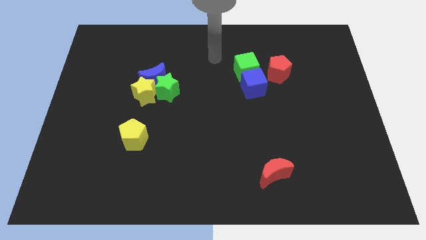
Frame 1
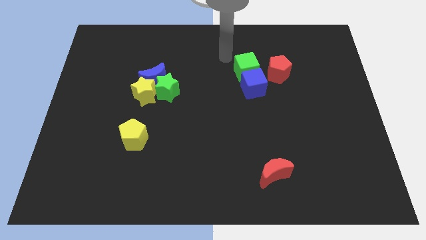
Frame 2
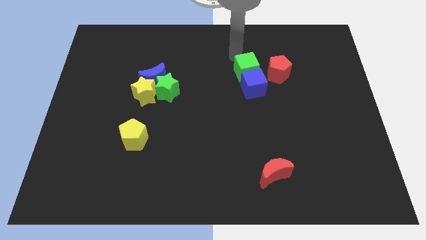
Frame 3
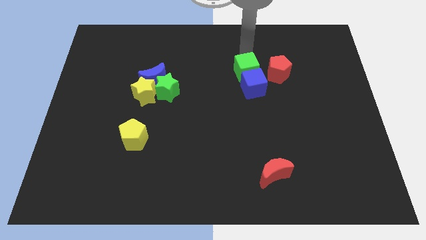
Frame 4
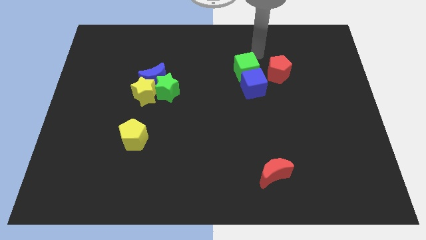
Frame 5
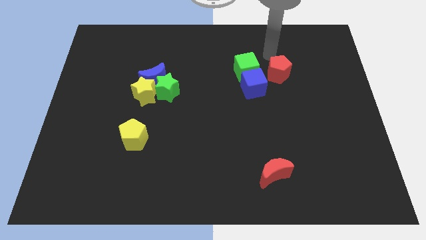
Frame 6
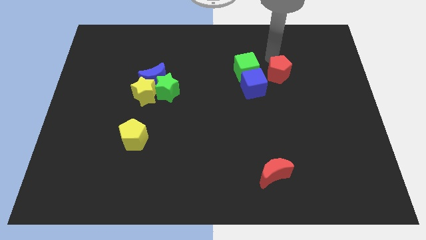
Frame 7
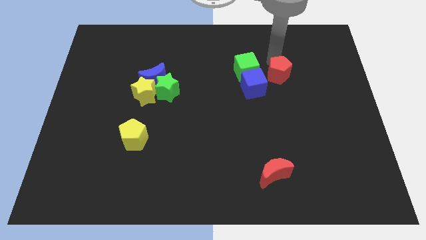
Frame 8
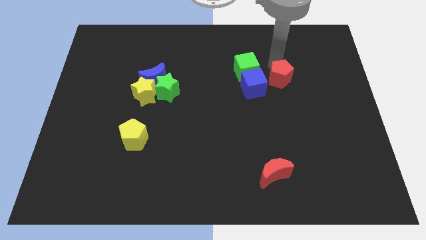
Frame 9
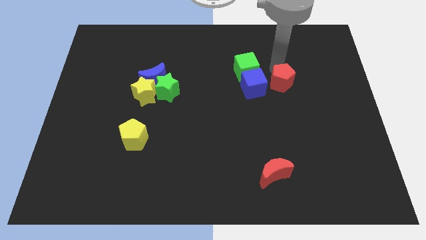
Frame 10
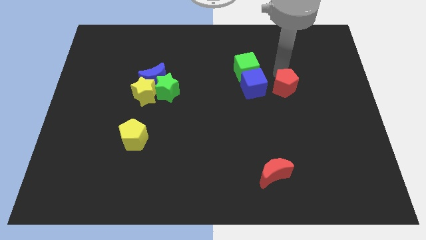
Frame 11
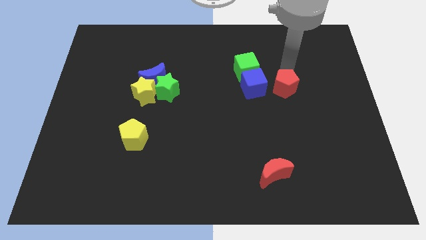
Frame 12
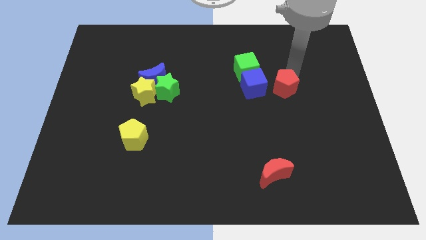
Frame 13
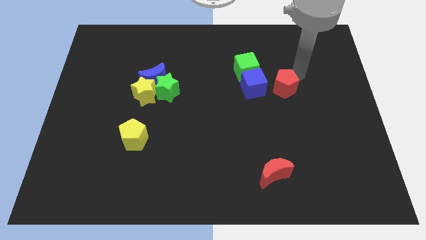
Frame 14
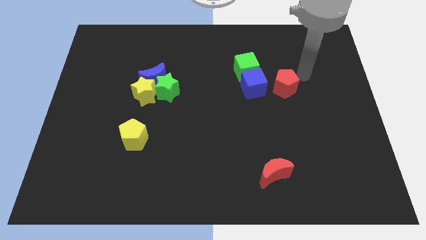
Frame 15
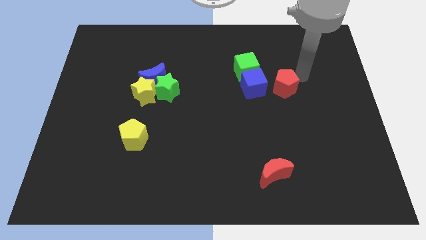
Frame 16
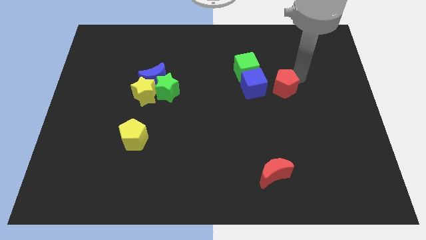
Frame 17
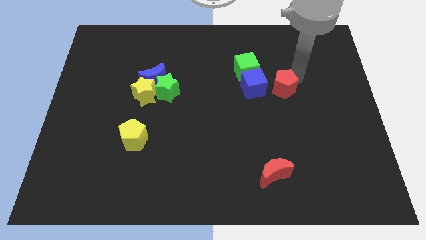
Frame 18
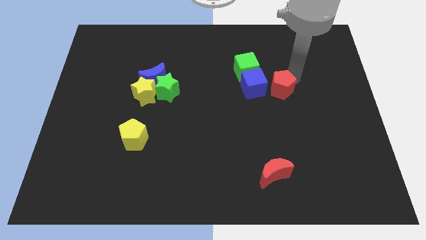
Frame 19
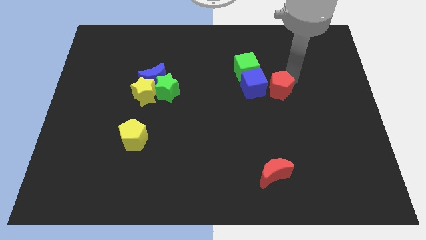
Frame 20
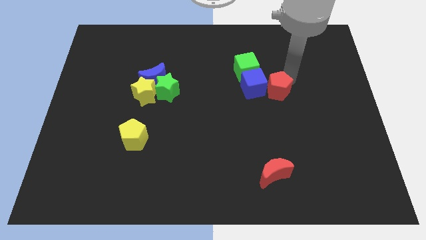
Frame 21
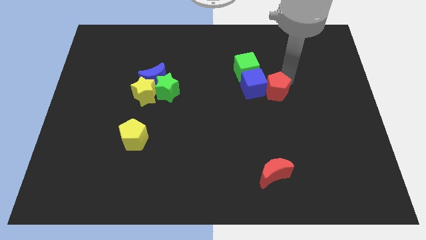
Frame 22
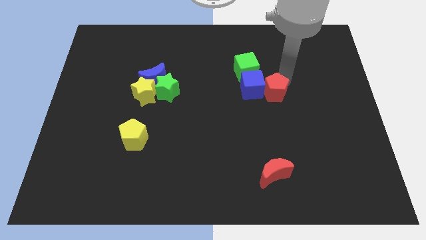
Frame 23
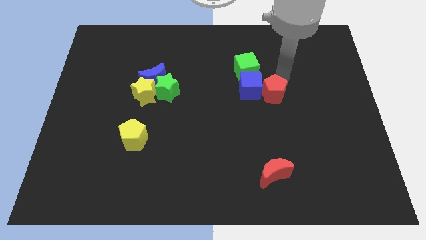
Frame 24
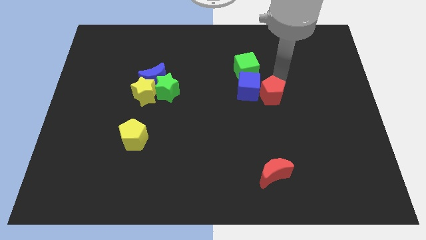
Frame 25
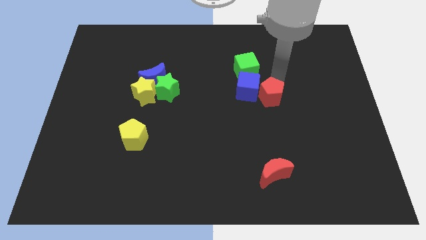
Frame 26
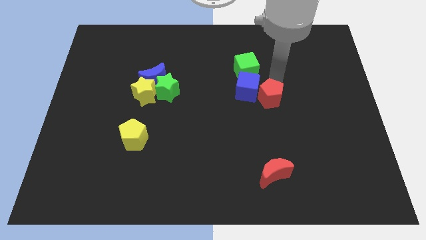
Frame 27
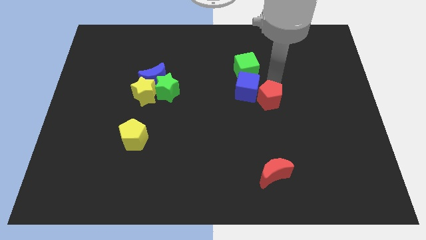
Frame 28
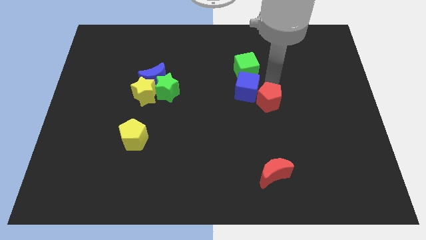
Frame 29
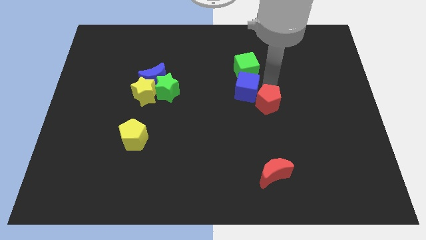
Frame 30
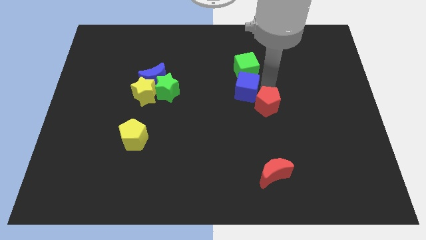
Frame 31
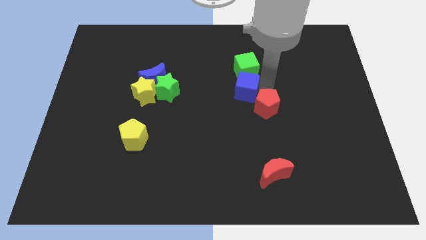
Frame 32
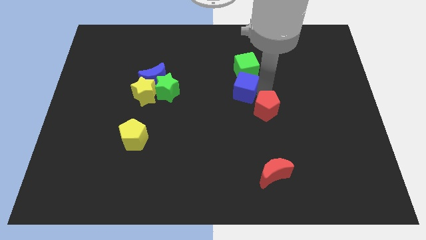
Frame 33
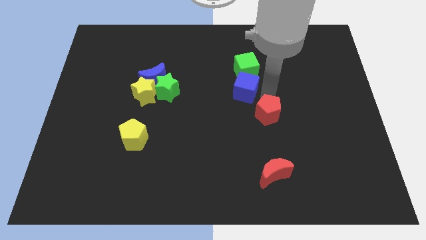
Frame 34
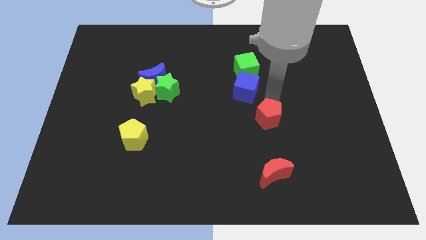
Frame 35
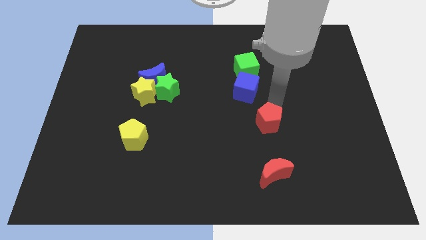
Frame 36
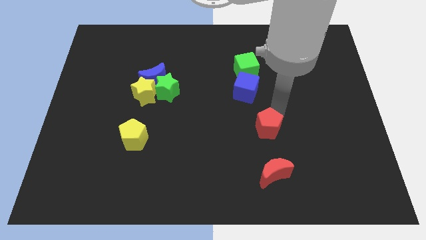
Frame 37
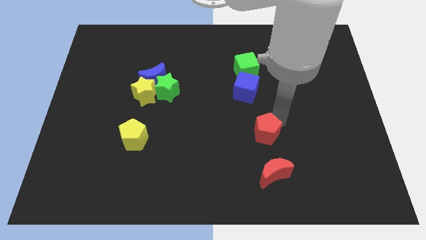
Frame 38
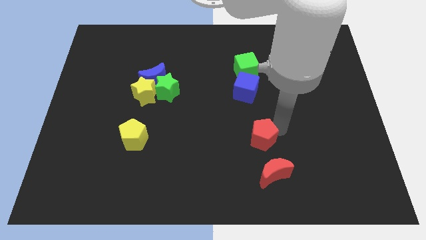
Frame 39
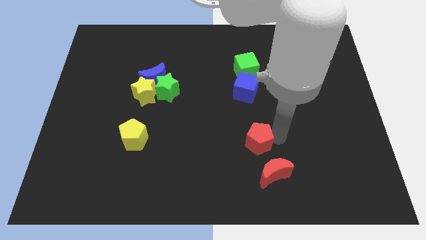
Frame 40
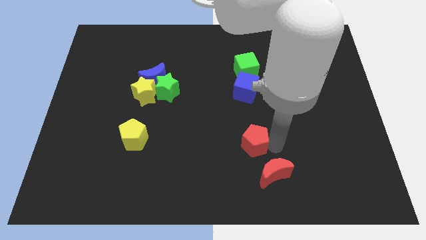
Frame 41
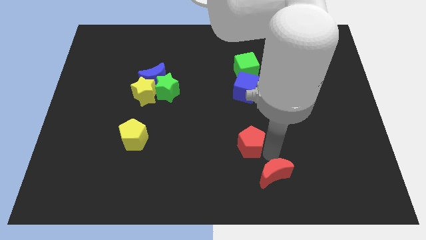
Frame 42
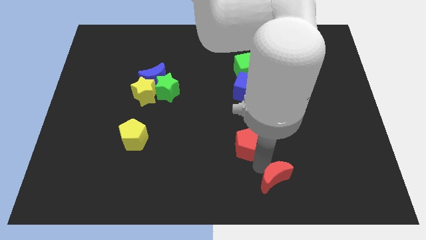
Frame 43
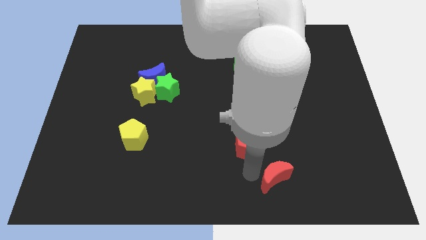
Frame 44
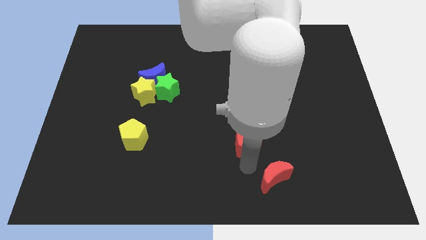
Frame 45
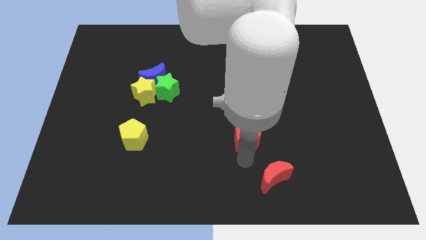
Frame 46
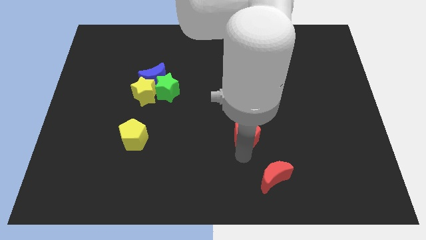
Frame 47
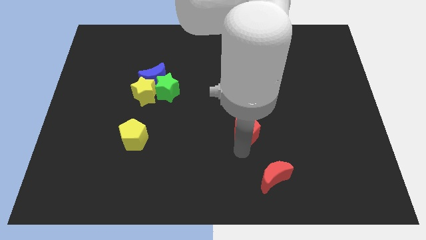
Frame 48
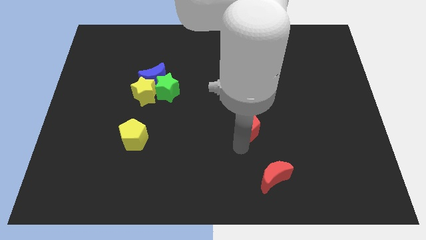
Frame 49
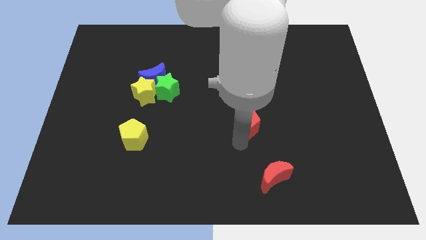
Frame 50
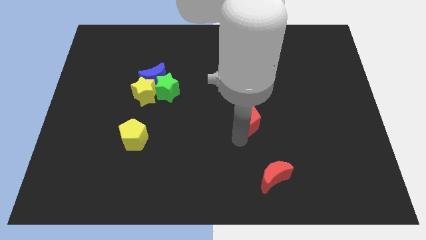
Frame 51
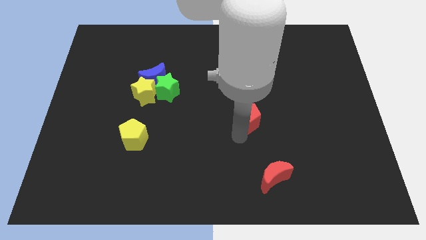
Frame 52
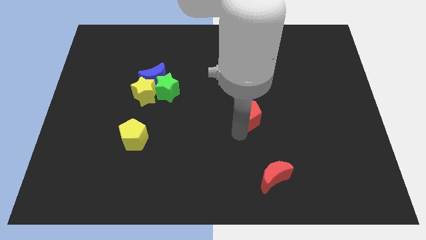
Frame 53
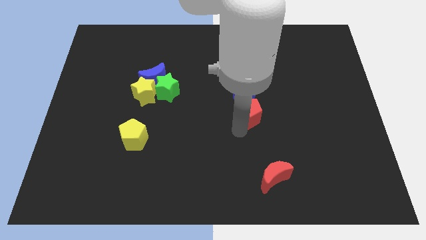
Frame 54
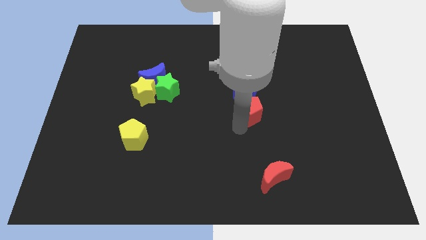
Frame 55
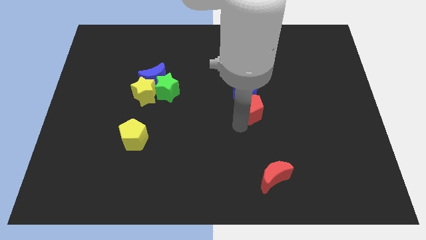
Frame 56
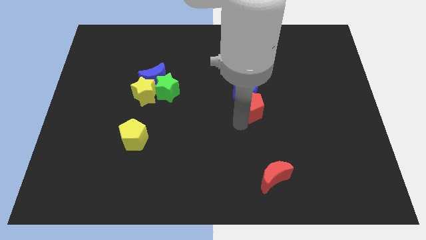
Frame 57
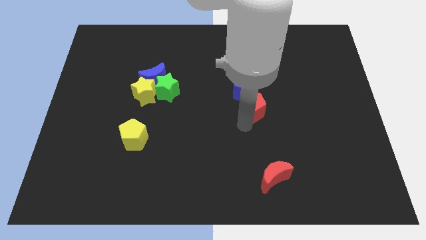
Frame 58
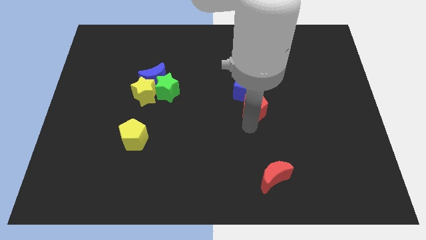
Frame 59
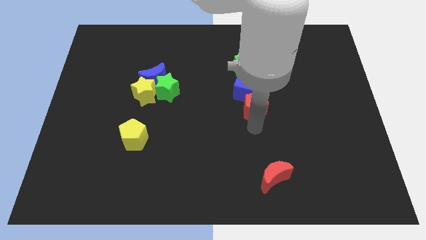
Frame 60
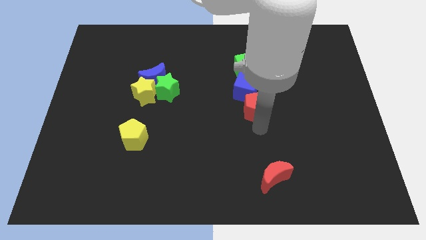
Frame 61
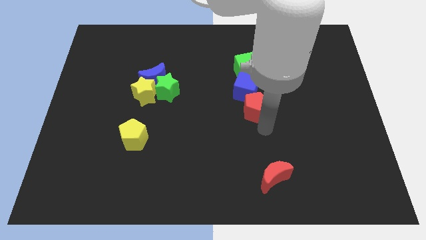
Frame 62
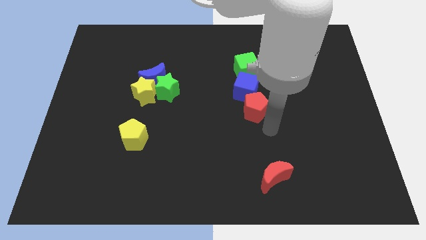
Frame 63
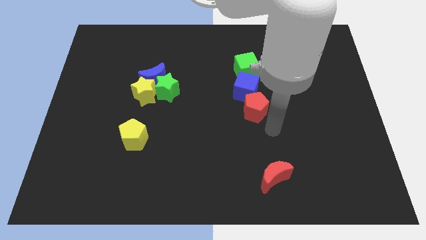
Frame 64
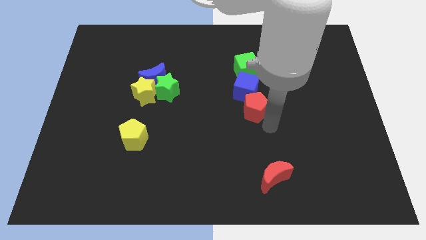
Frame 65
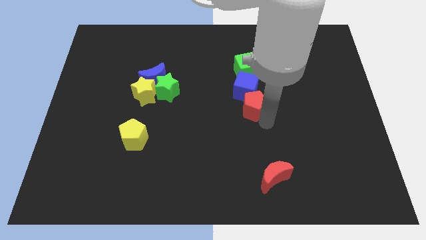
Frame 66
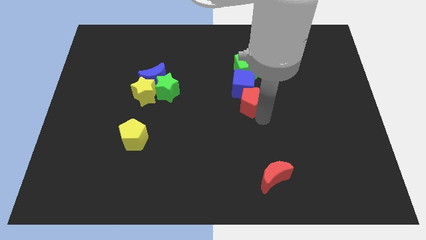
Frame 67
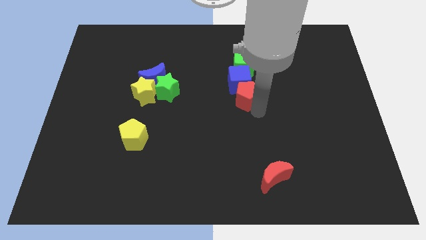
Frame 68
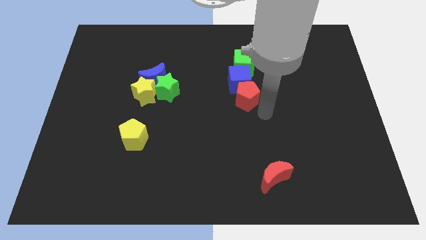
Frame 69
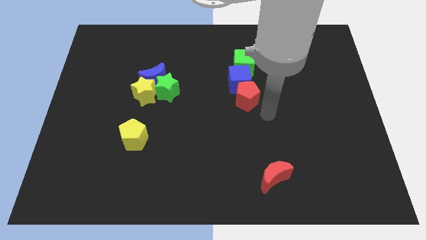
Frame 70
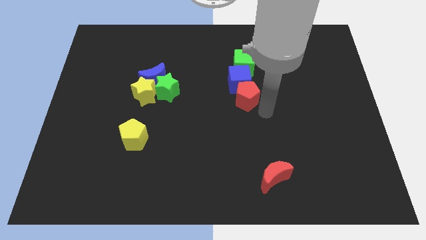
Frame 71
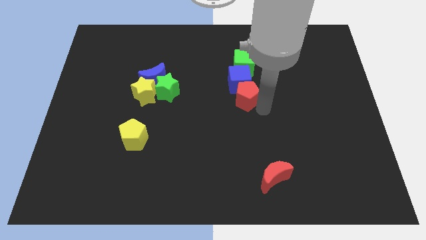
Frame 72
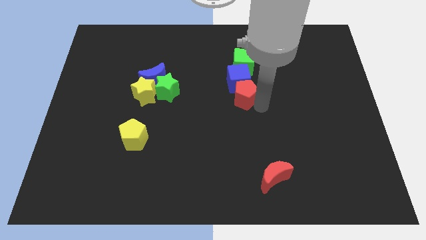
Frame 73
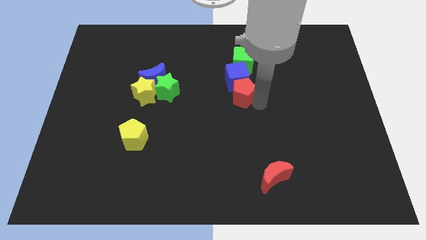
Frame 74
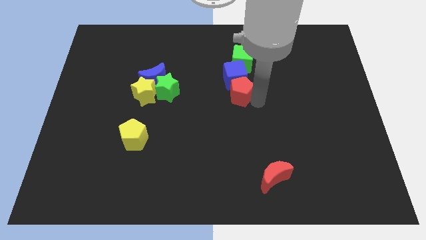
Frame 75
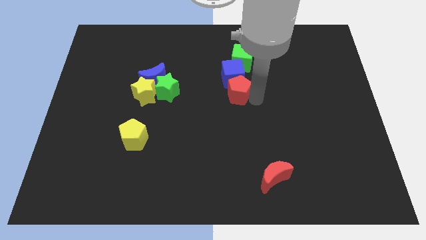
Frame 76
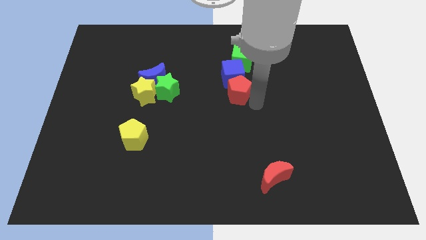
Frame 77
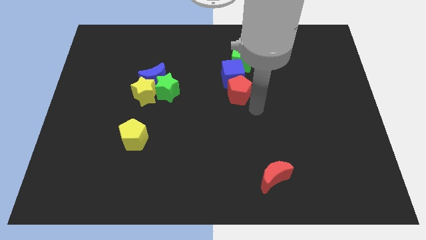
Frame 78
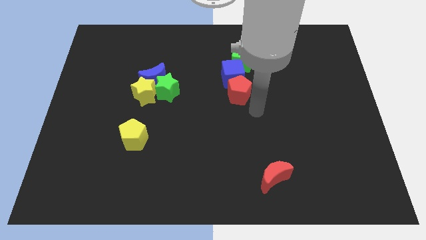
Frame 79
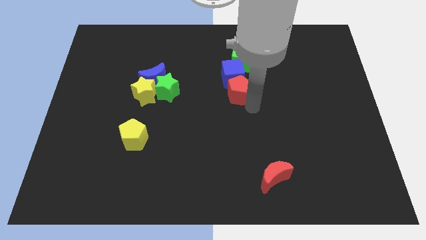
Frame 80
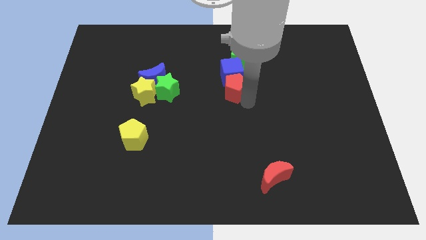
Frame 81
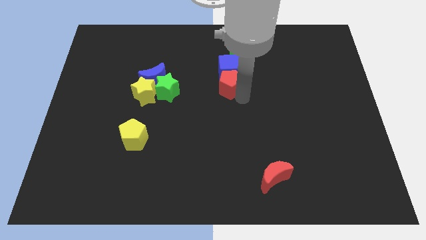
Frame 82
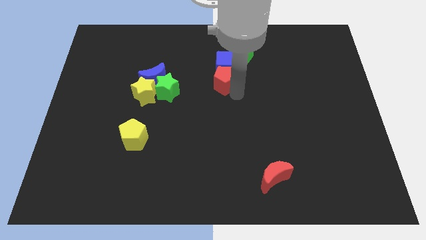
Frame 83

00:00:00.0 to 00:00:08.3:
slide the red pentagon to the bottom left of the green cube
